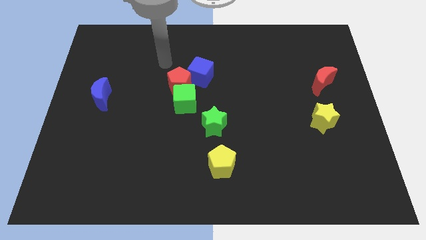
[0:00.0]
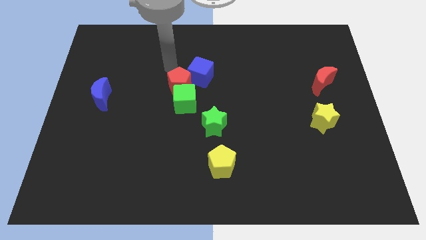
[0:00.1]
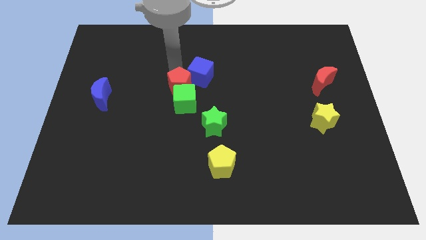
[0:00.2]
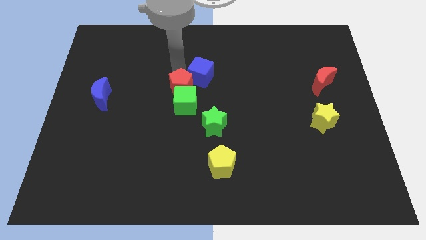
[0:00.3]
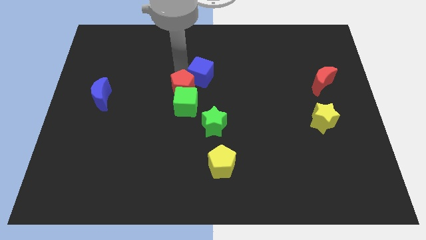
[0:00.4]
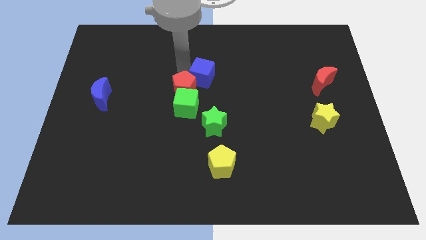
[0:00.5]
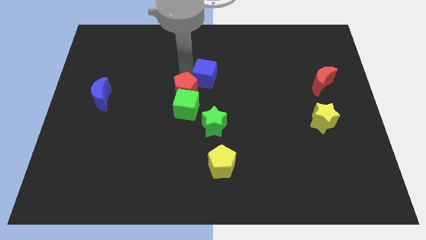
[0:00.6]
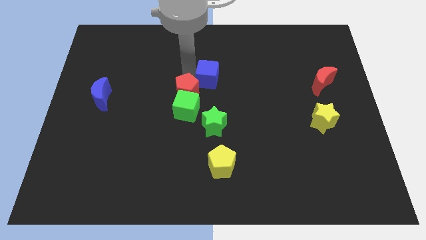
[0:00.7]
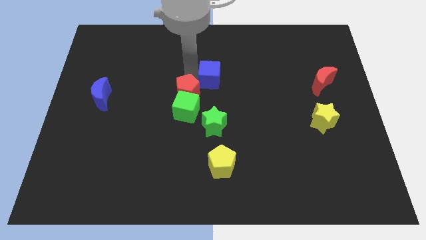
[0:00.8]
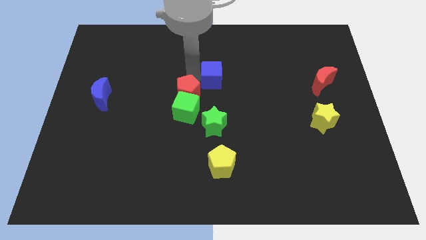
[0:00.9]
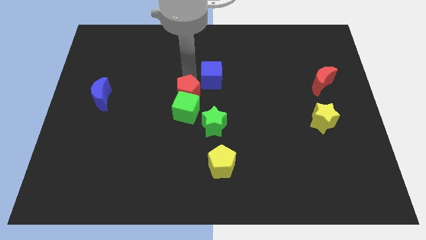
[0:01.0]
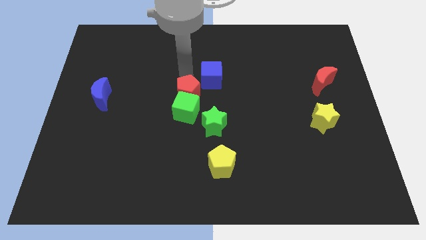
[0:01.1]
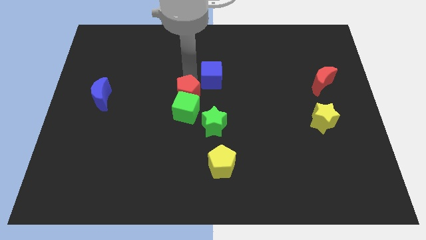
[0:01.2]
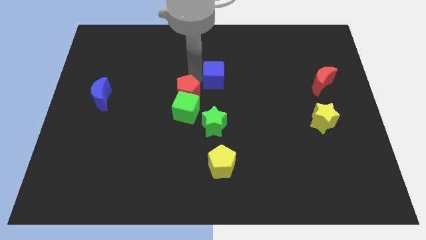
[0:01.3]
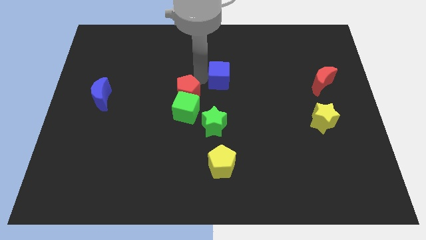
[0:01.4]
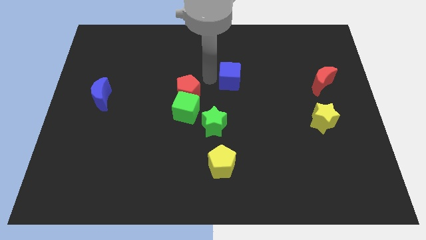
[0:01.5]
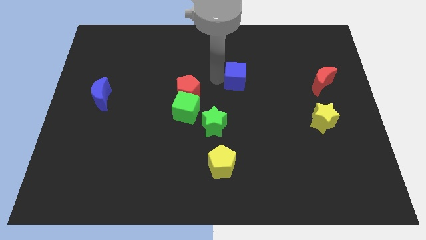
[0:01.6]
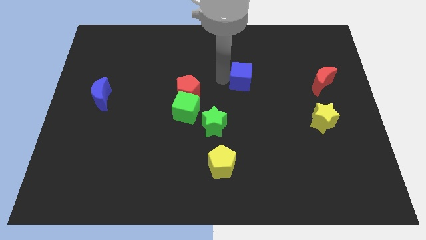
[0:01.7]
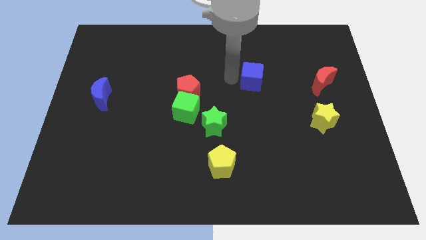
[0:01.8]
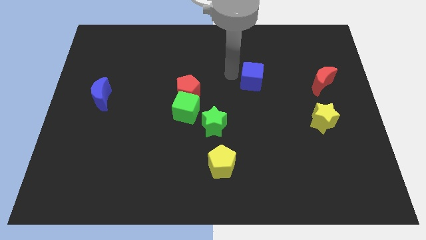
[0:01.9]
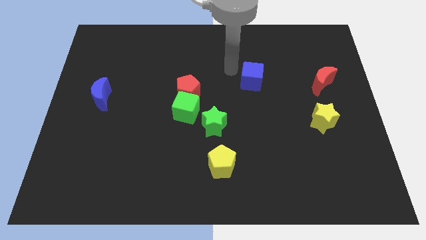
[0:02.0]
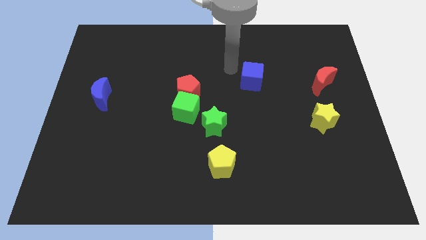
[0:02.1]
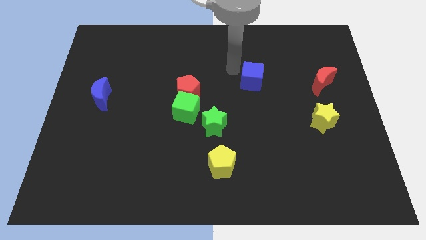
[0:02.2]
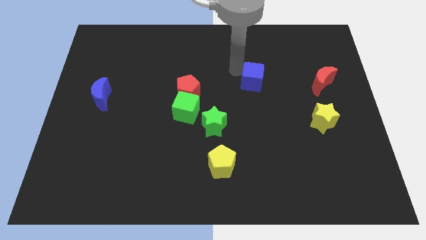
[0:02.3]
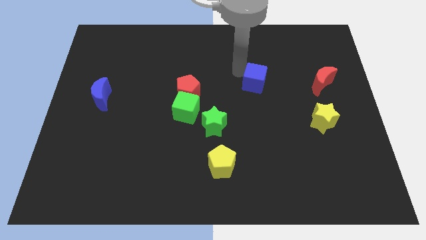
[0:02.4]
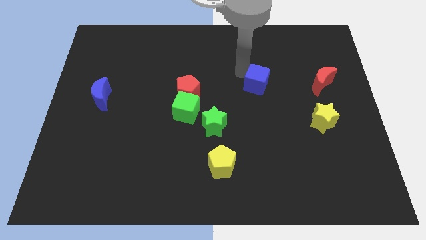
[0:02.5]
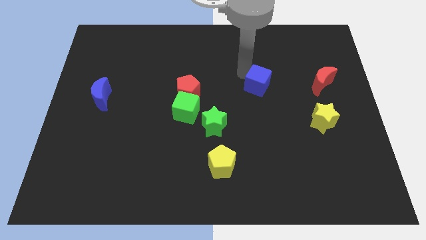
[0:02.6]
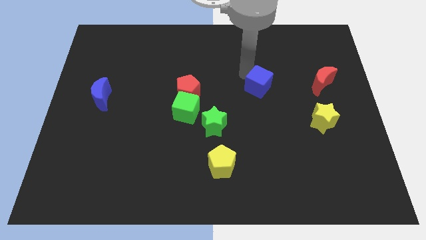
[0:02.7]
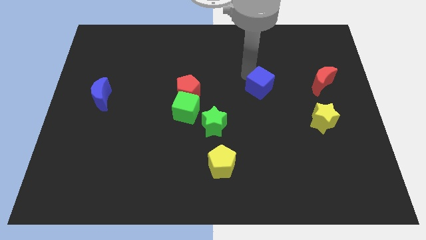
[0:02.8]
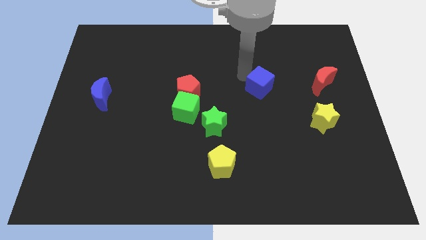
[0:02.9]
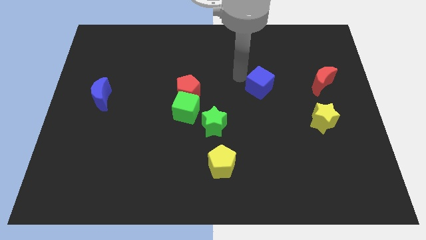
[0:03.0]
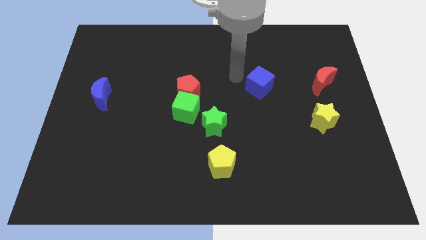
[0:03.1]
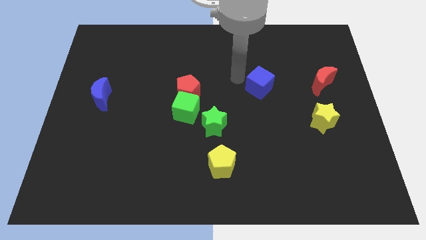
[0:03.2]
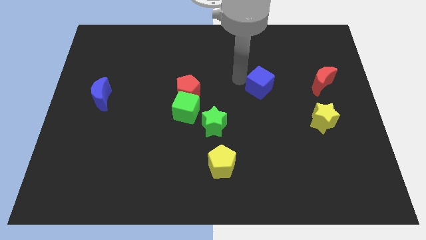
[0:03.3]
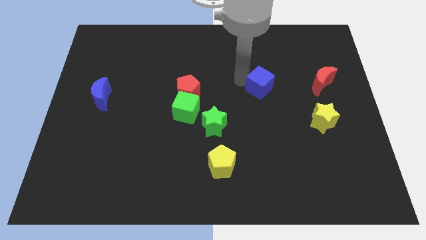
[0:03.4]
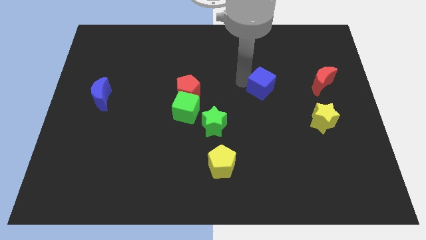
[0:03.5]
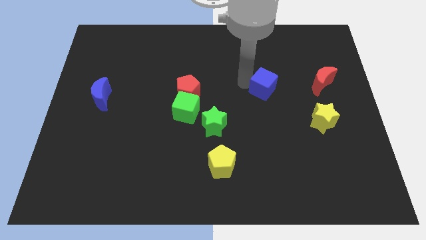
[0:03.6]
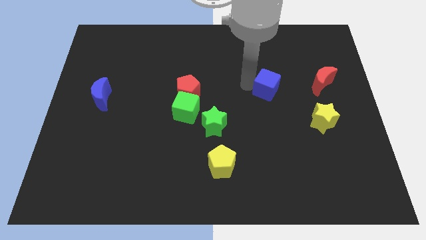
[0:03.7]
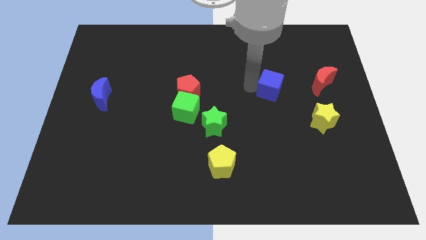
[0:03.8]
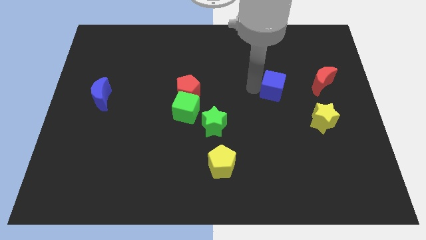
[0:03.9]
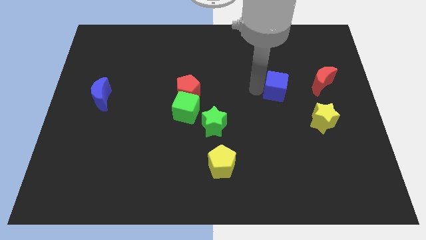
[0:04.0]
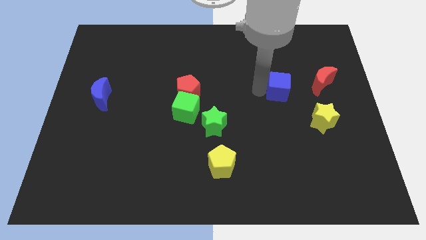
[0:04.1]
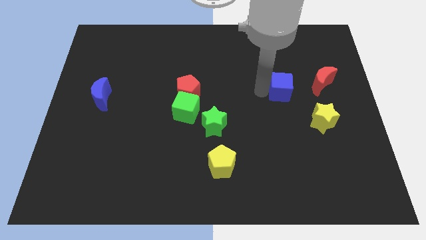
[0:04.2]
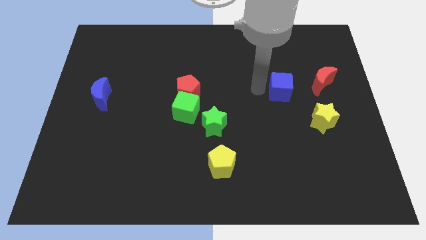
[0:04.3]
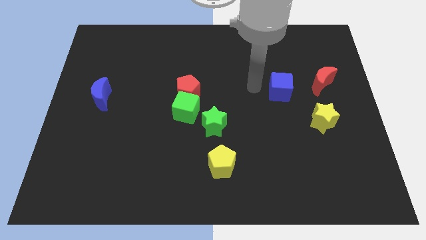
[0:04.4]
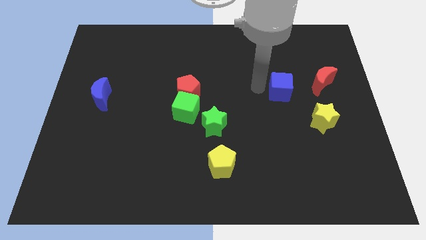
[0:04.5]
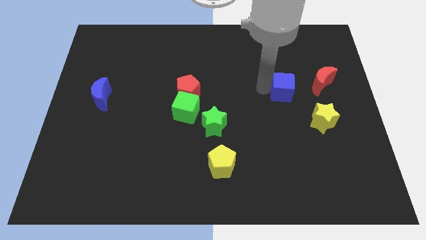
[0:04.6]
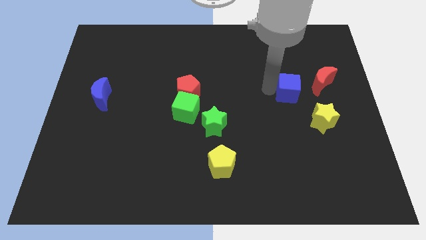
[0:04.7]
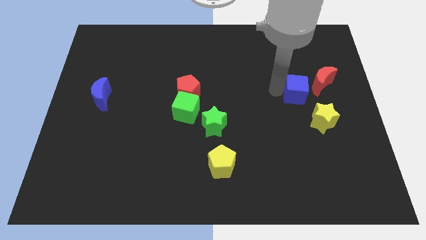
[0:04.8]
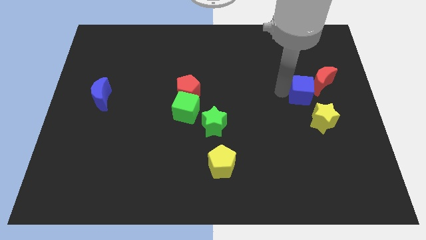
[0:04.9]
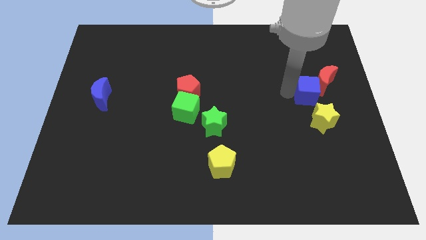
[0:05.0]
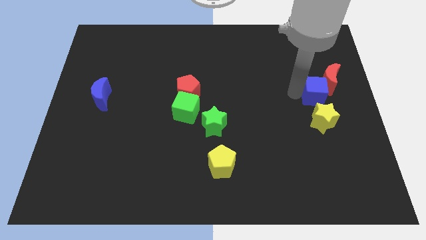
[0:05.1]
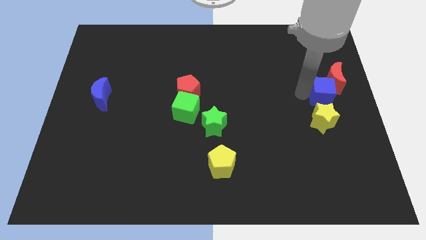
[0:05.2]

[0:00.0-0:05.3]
move the blue cube to the right side of the board

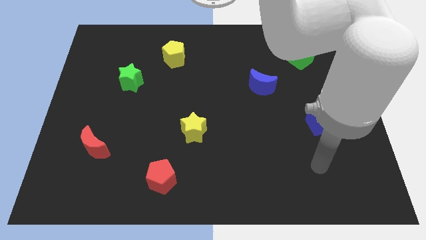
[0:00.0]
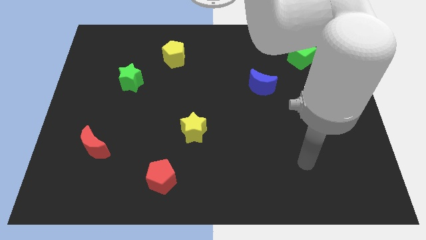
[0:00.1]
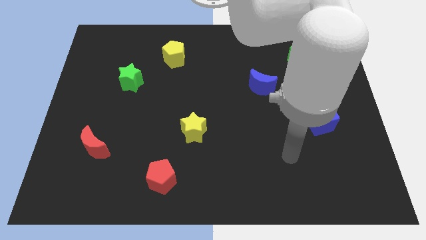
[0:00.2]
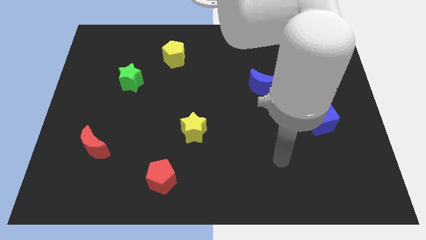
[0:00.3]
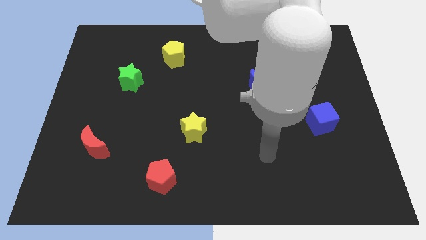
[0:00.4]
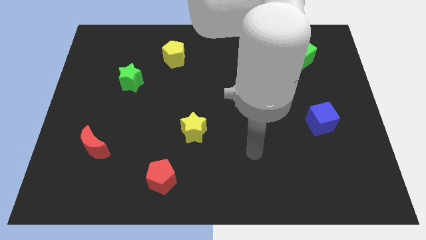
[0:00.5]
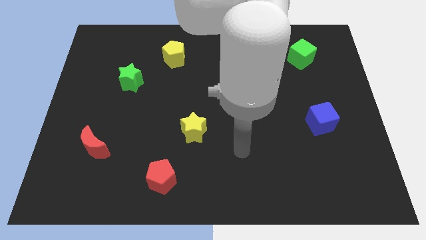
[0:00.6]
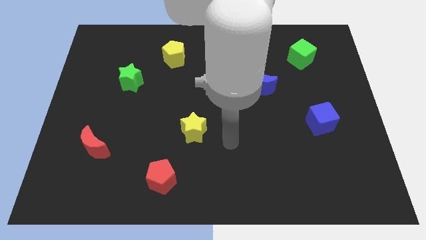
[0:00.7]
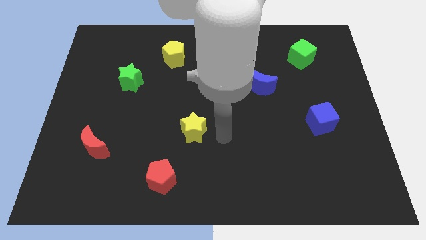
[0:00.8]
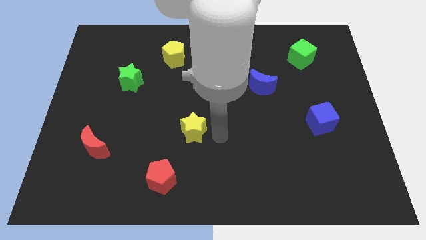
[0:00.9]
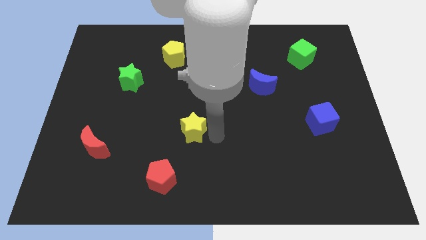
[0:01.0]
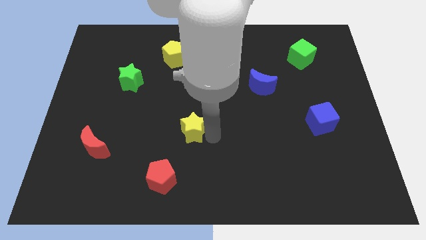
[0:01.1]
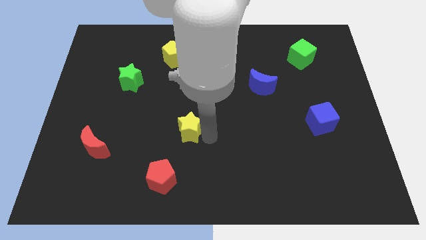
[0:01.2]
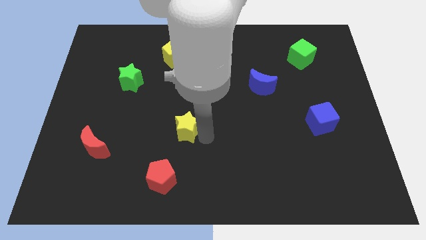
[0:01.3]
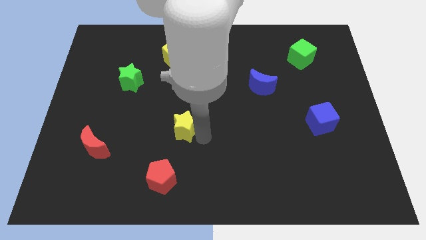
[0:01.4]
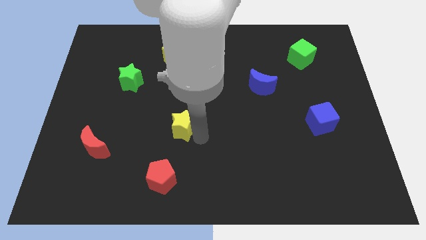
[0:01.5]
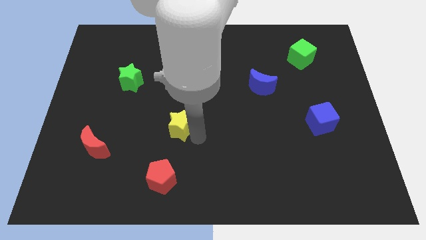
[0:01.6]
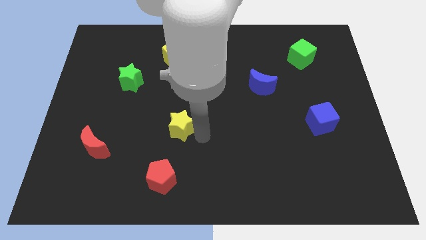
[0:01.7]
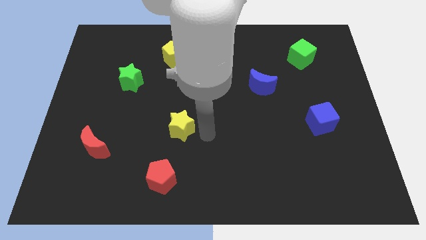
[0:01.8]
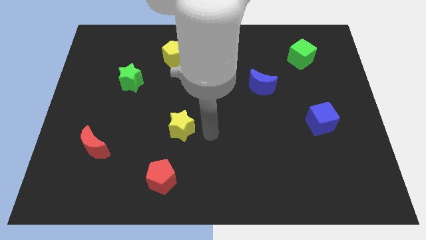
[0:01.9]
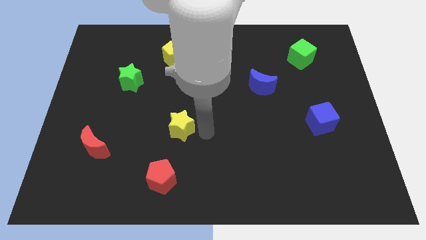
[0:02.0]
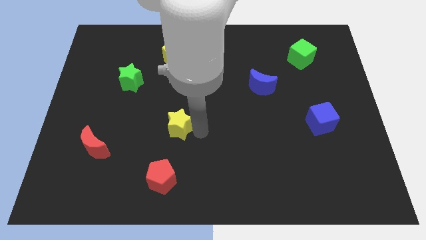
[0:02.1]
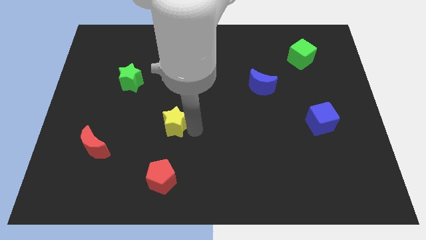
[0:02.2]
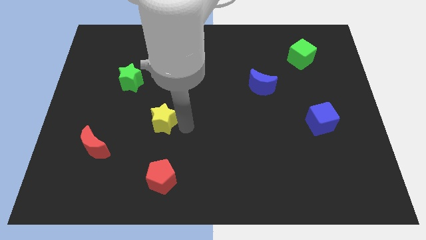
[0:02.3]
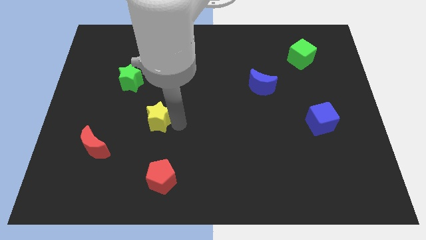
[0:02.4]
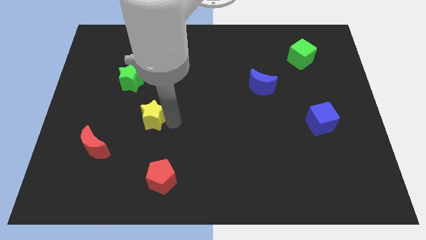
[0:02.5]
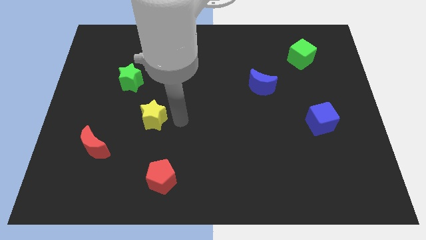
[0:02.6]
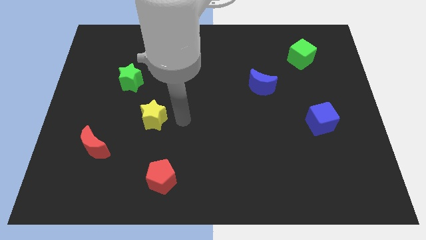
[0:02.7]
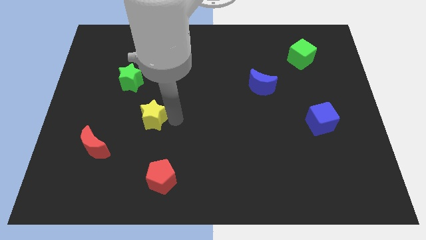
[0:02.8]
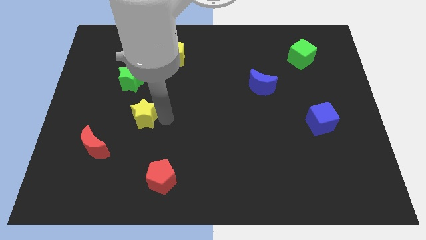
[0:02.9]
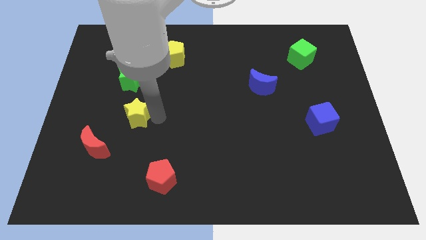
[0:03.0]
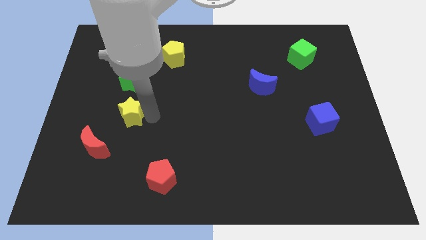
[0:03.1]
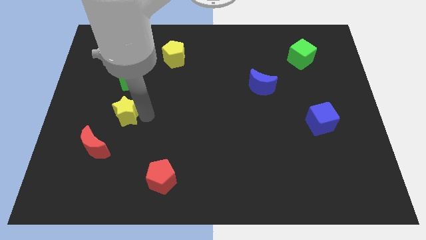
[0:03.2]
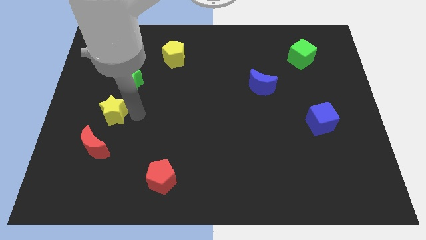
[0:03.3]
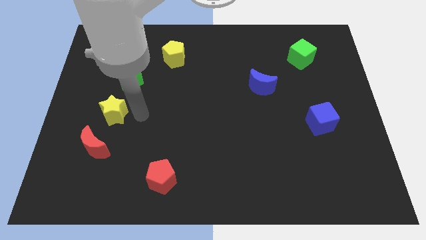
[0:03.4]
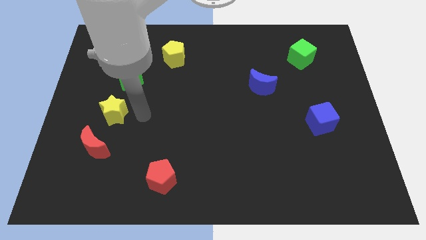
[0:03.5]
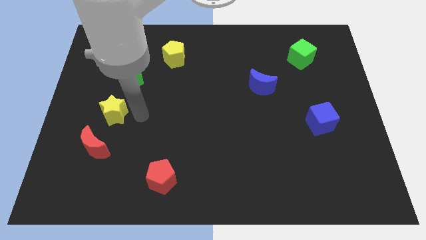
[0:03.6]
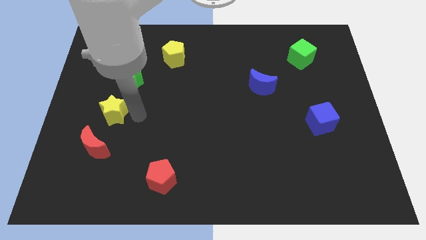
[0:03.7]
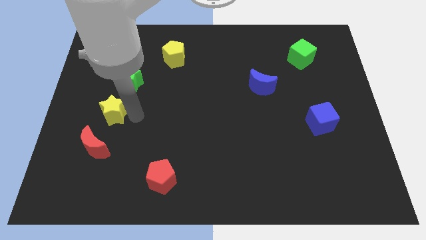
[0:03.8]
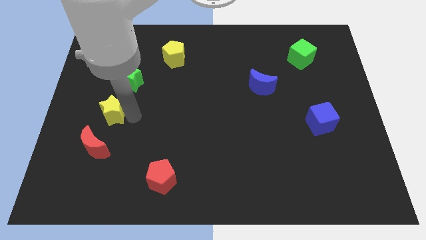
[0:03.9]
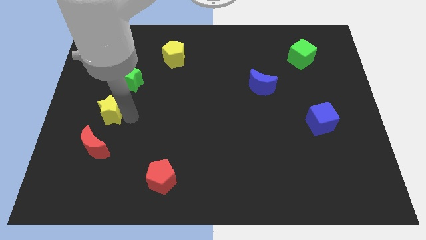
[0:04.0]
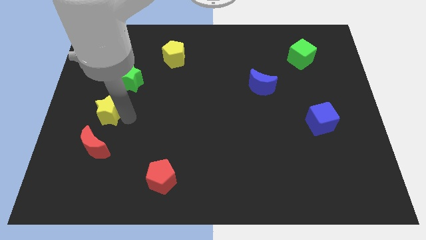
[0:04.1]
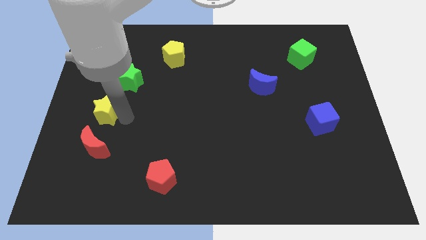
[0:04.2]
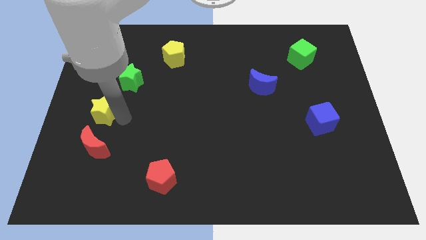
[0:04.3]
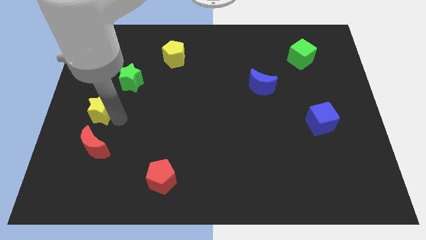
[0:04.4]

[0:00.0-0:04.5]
move the yellow star to the left side
